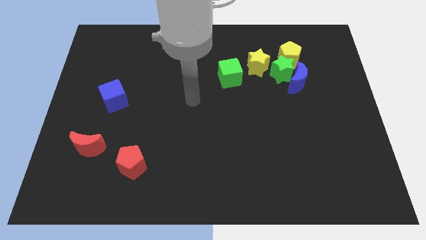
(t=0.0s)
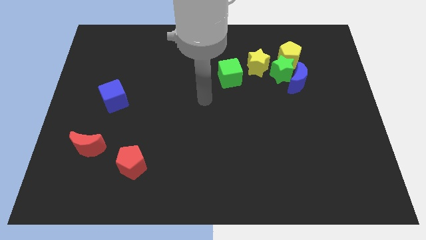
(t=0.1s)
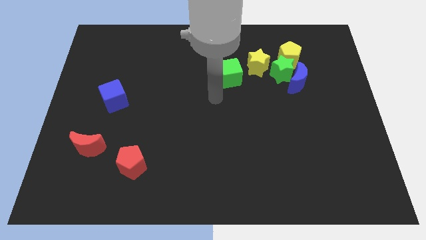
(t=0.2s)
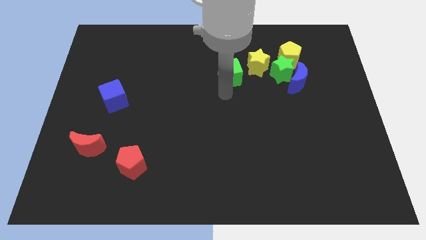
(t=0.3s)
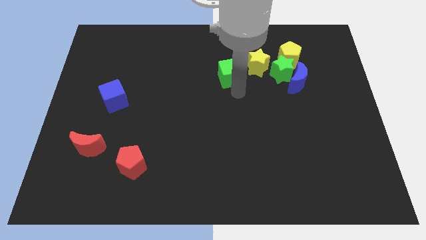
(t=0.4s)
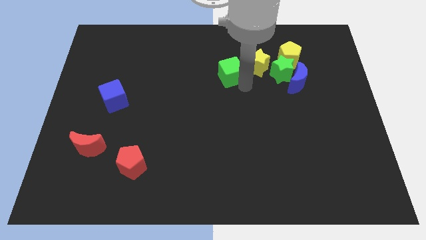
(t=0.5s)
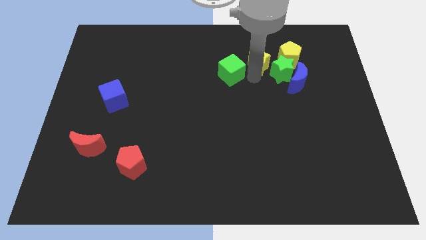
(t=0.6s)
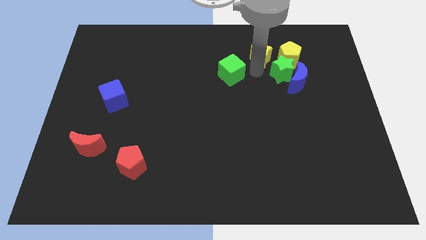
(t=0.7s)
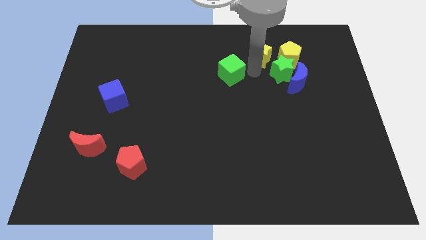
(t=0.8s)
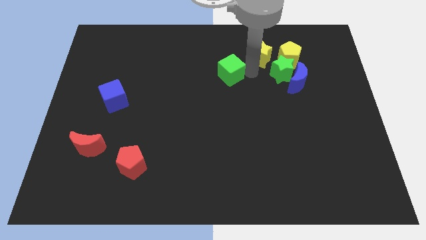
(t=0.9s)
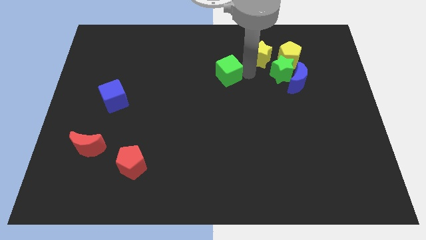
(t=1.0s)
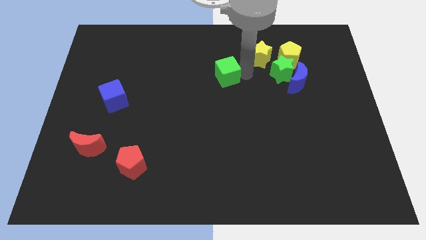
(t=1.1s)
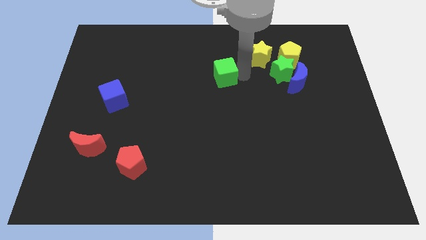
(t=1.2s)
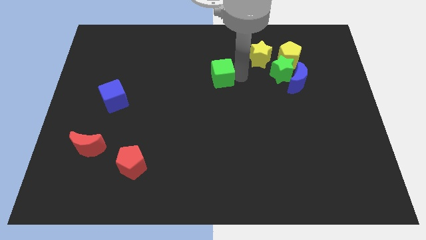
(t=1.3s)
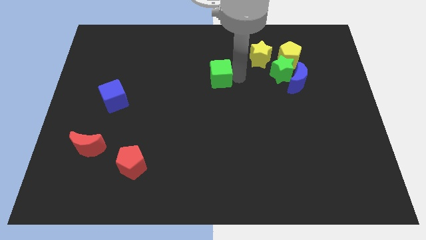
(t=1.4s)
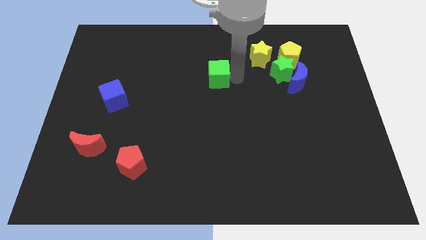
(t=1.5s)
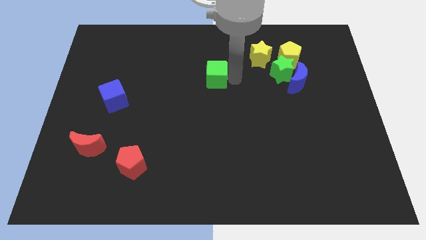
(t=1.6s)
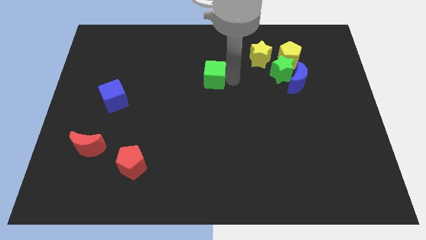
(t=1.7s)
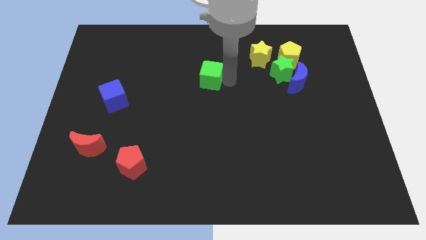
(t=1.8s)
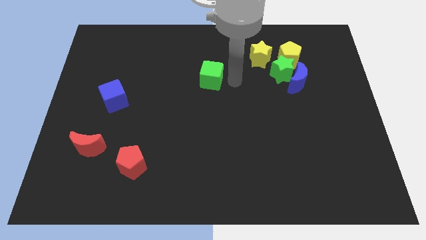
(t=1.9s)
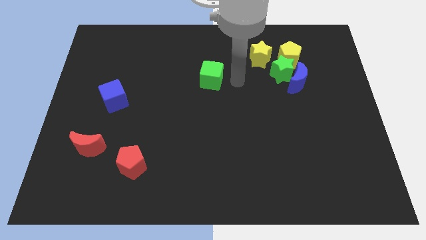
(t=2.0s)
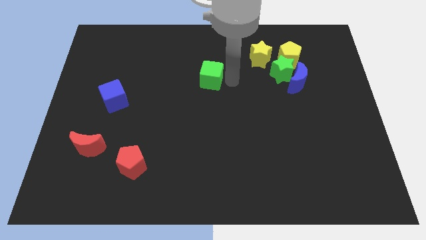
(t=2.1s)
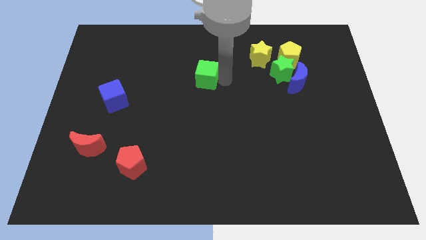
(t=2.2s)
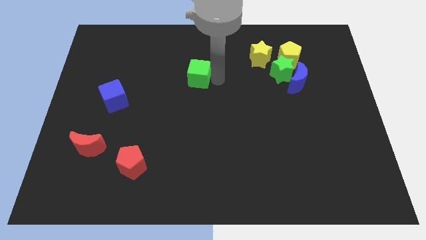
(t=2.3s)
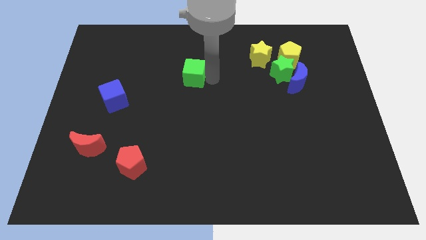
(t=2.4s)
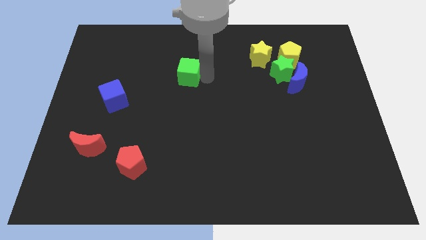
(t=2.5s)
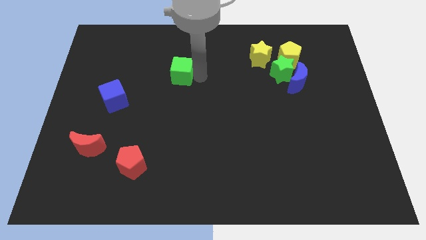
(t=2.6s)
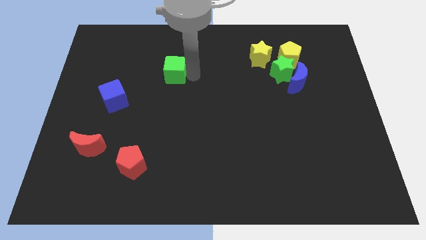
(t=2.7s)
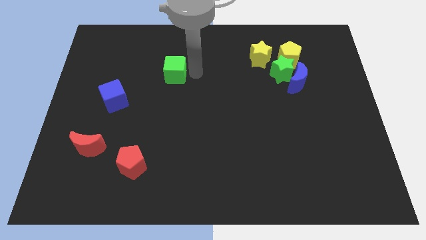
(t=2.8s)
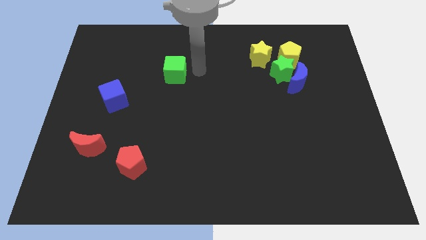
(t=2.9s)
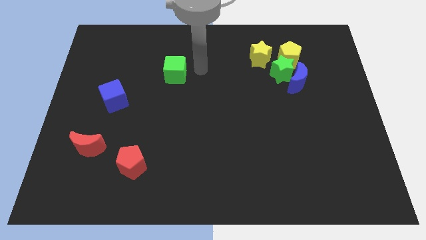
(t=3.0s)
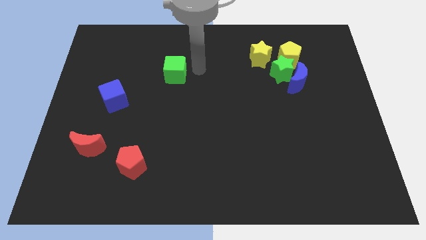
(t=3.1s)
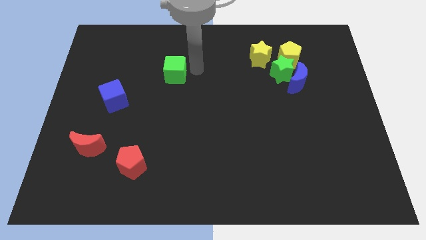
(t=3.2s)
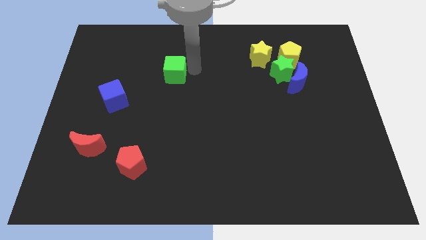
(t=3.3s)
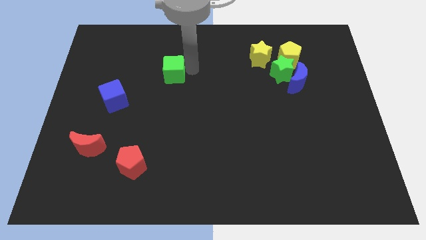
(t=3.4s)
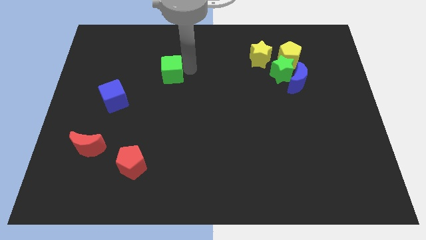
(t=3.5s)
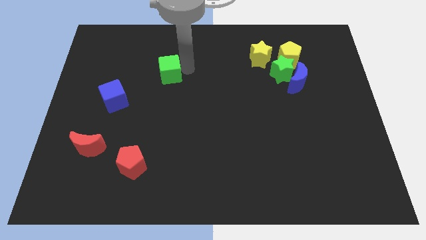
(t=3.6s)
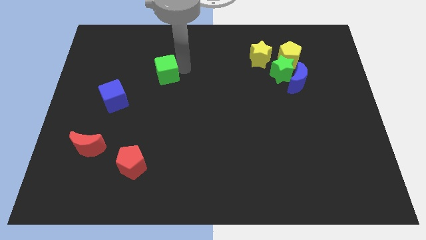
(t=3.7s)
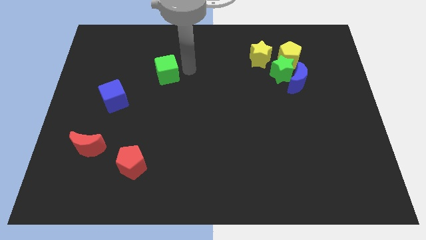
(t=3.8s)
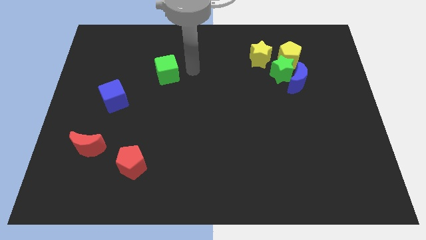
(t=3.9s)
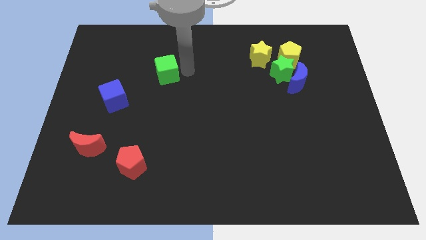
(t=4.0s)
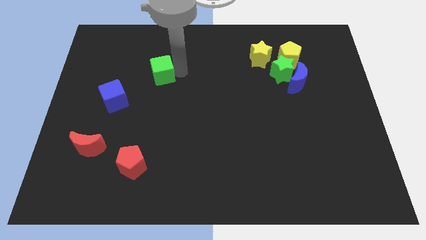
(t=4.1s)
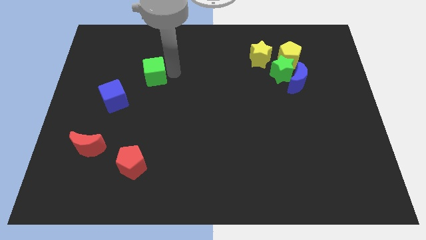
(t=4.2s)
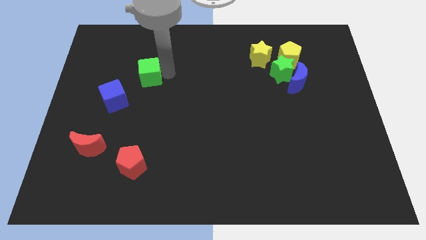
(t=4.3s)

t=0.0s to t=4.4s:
push the green cube to the left

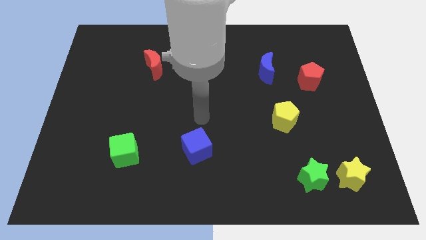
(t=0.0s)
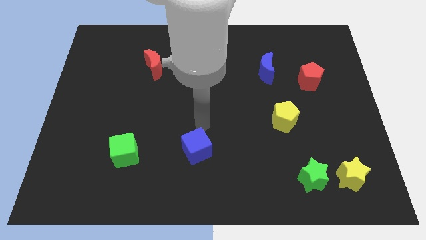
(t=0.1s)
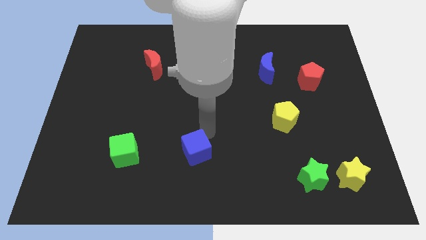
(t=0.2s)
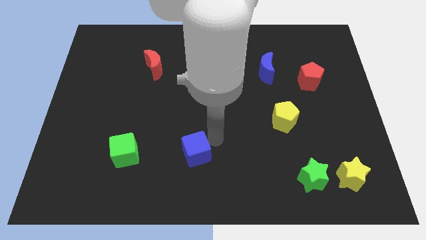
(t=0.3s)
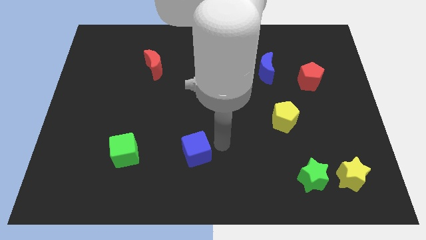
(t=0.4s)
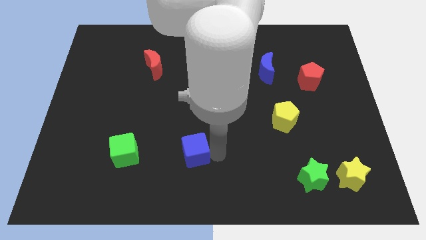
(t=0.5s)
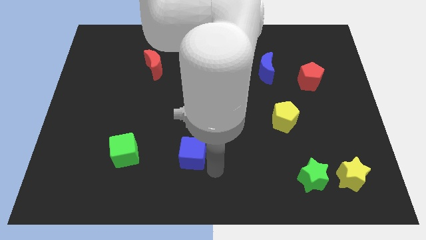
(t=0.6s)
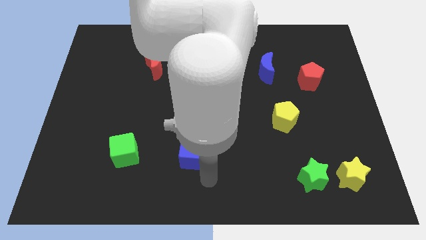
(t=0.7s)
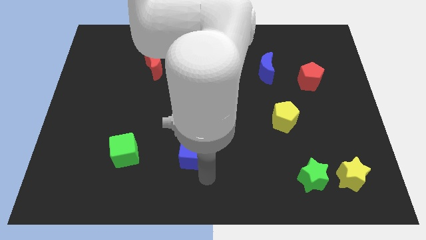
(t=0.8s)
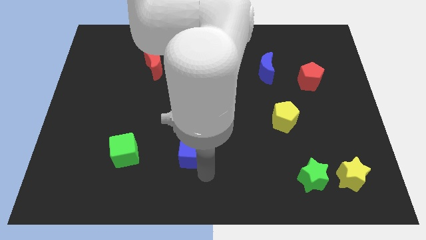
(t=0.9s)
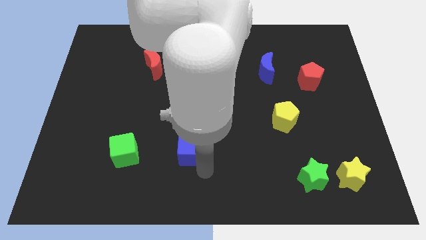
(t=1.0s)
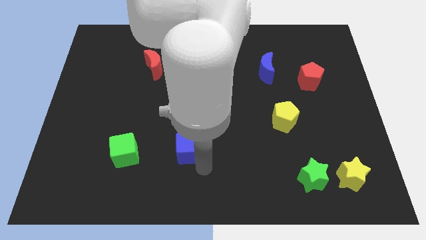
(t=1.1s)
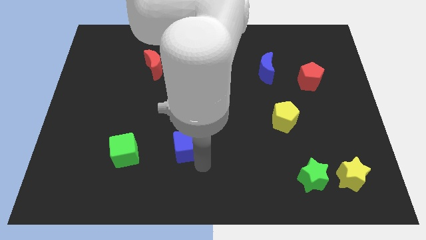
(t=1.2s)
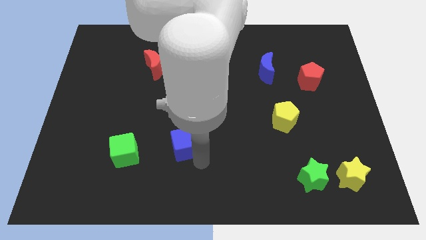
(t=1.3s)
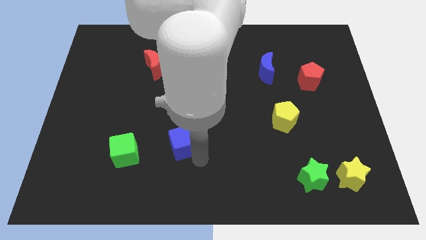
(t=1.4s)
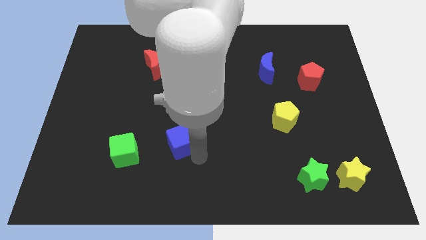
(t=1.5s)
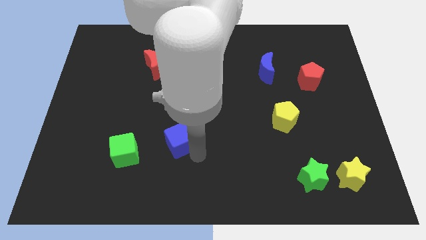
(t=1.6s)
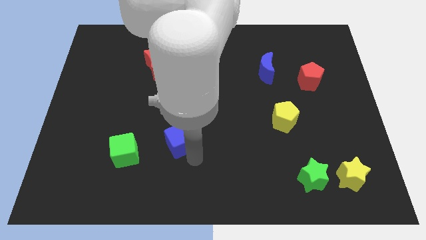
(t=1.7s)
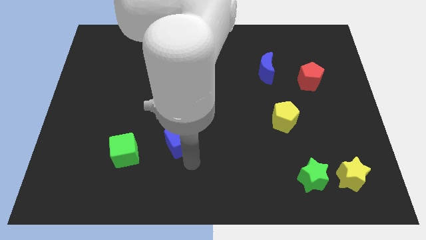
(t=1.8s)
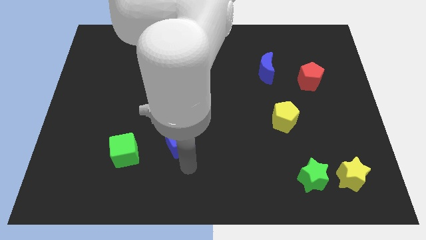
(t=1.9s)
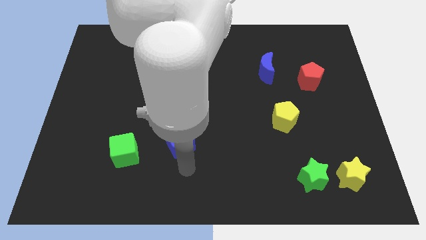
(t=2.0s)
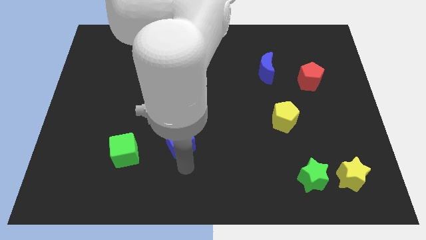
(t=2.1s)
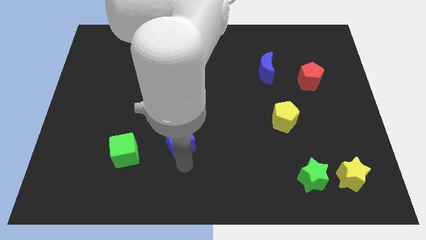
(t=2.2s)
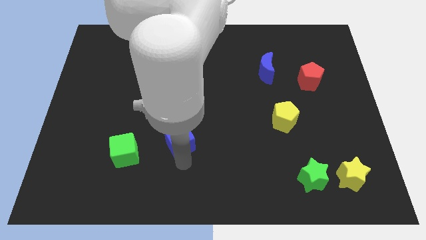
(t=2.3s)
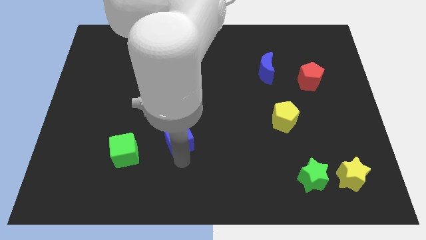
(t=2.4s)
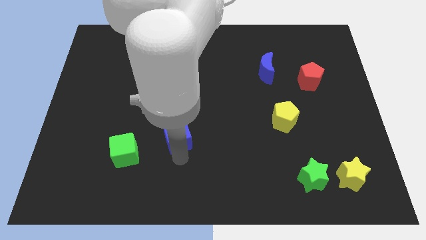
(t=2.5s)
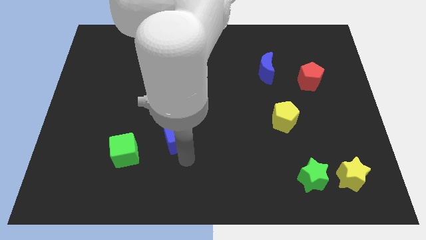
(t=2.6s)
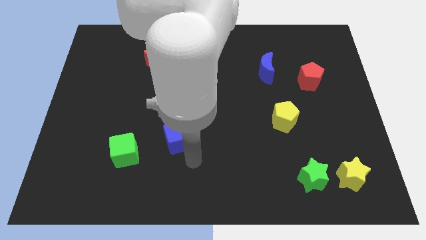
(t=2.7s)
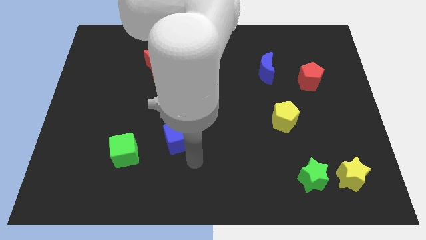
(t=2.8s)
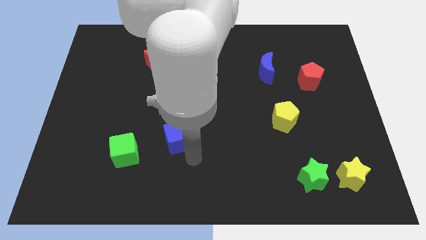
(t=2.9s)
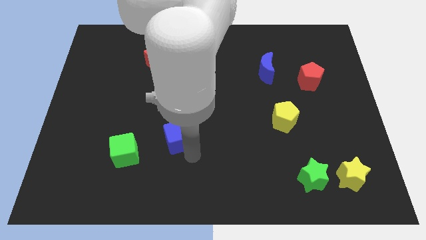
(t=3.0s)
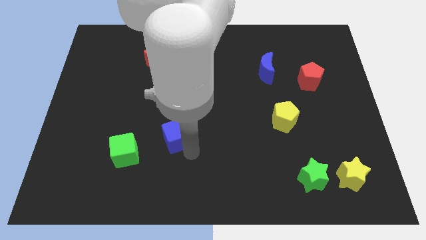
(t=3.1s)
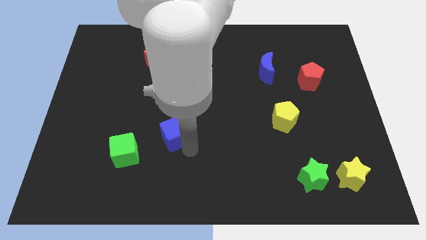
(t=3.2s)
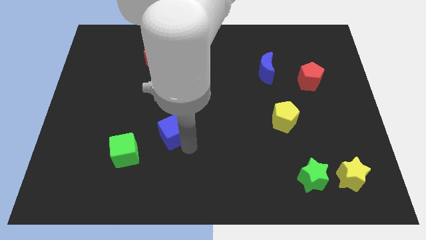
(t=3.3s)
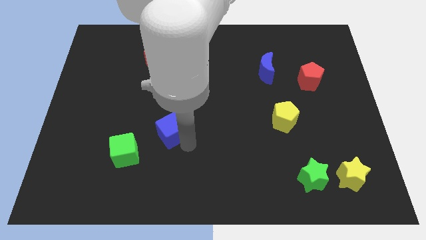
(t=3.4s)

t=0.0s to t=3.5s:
move the blue cube up and then to the left somewhat
